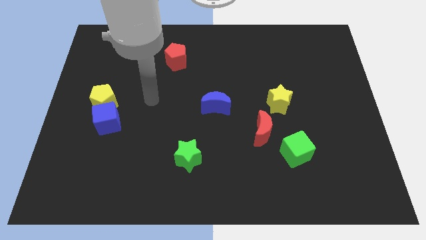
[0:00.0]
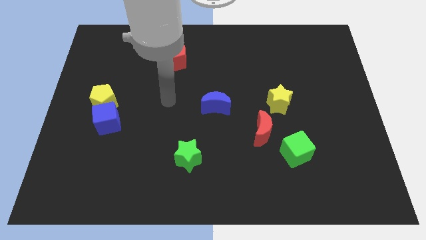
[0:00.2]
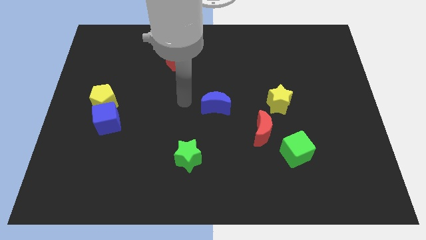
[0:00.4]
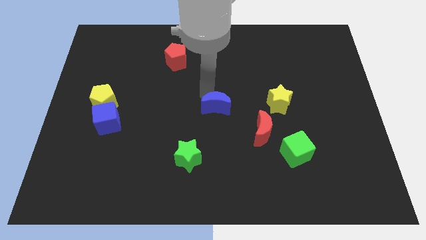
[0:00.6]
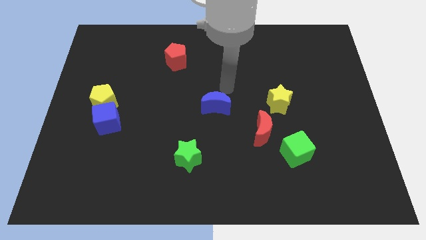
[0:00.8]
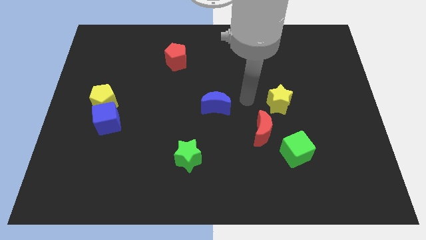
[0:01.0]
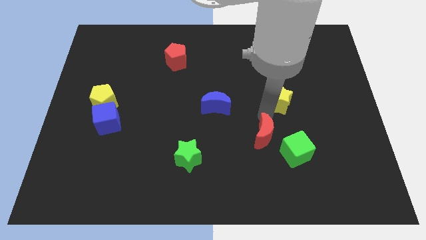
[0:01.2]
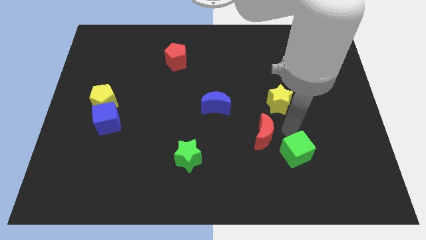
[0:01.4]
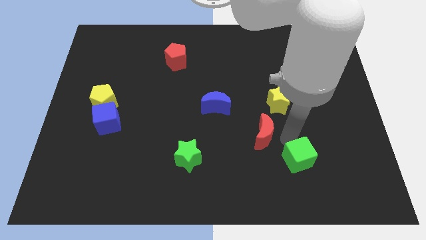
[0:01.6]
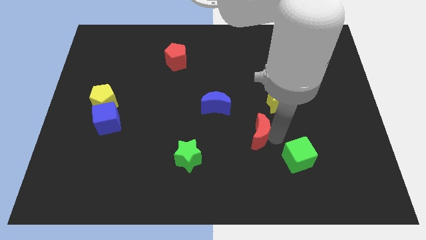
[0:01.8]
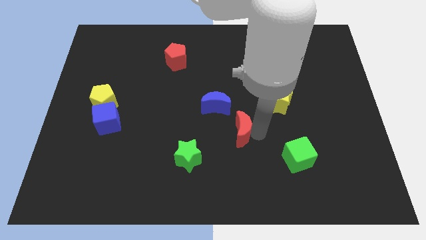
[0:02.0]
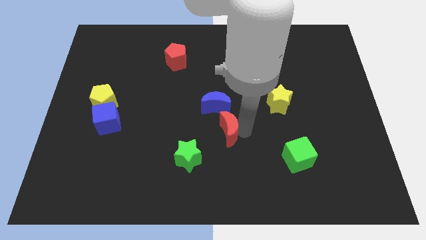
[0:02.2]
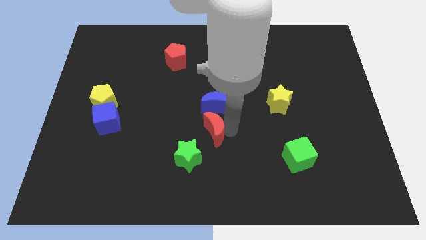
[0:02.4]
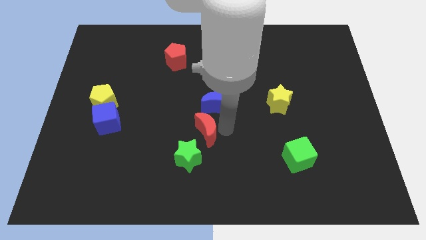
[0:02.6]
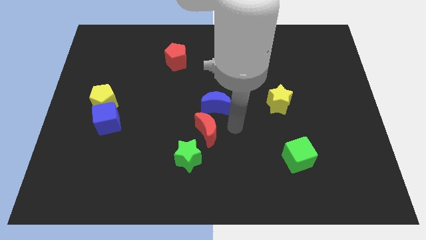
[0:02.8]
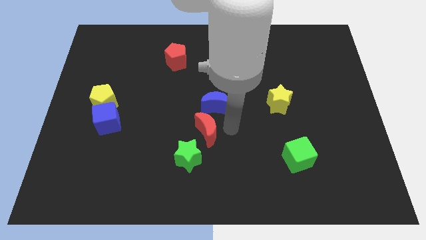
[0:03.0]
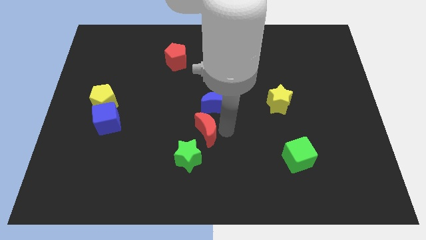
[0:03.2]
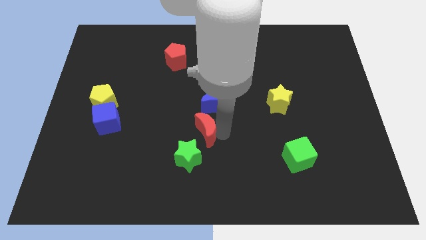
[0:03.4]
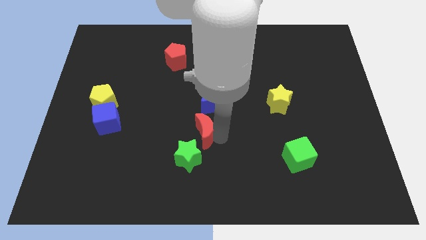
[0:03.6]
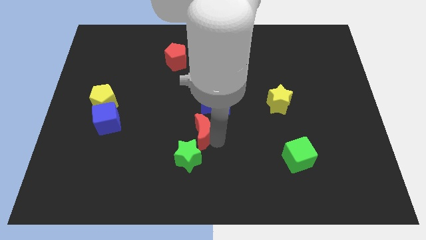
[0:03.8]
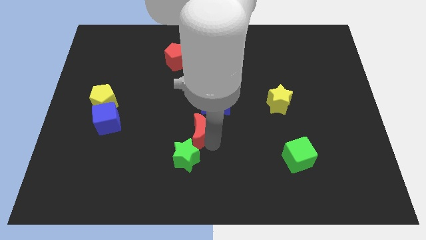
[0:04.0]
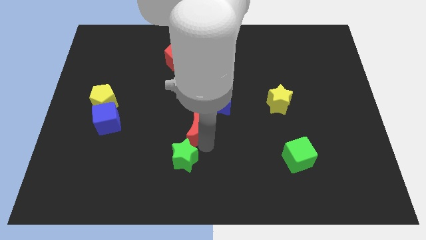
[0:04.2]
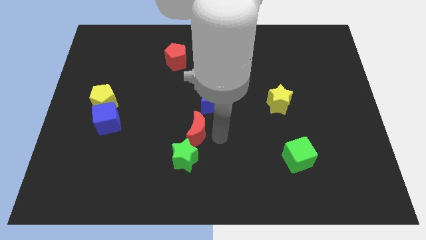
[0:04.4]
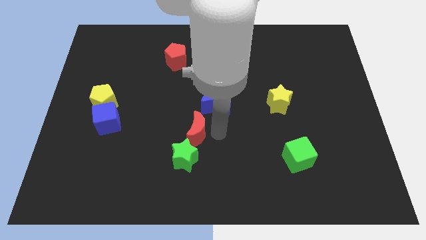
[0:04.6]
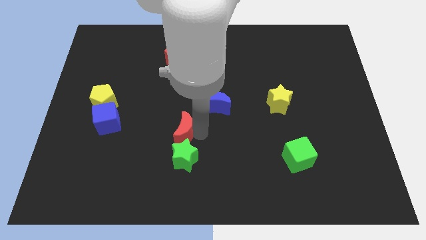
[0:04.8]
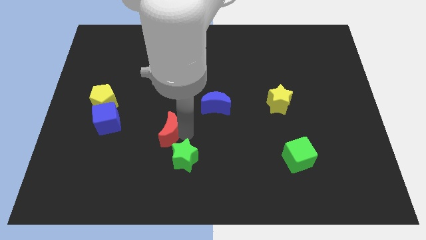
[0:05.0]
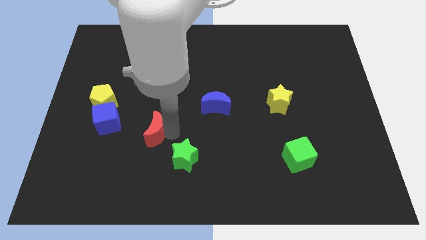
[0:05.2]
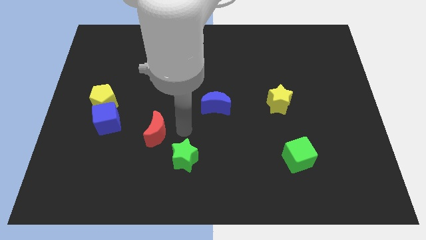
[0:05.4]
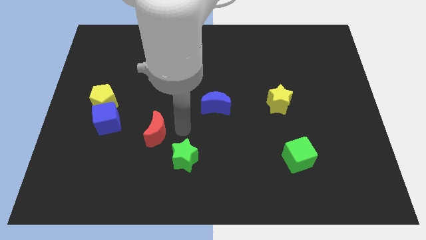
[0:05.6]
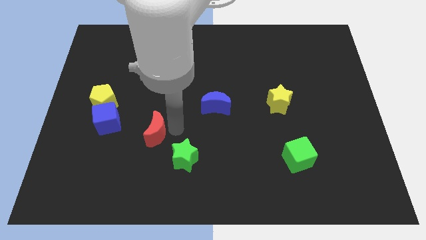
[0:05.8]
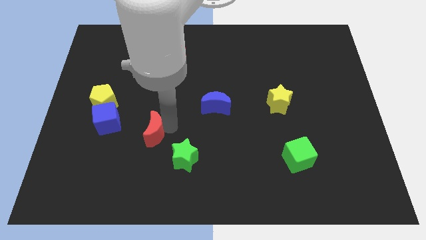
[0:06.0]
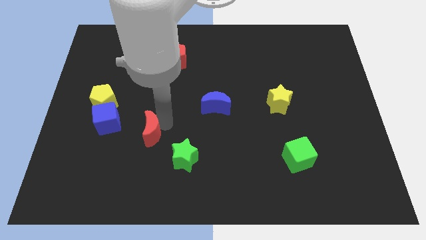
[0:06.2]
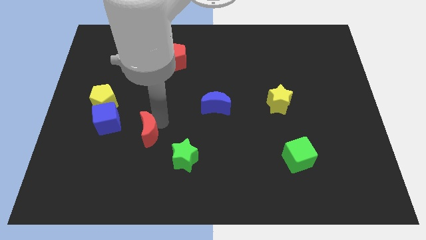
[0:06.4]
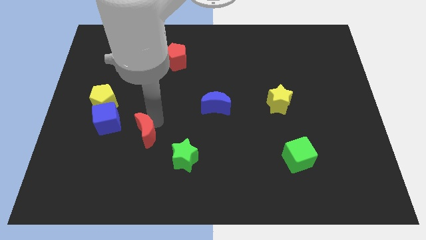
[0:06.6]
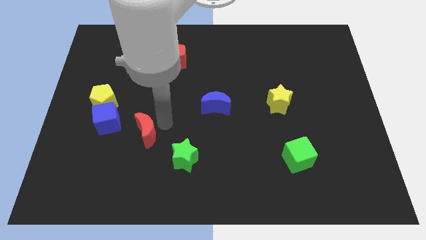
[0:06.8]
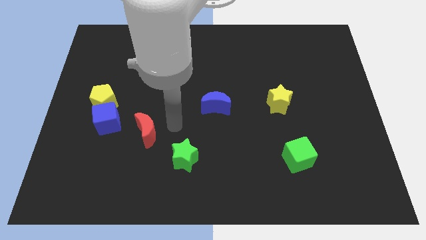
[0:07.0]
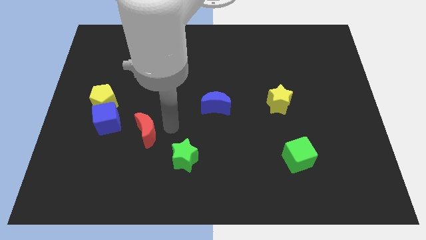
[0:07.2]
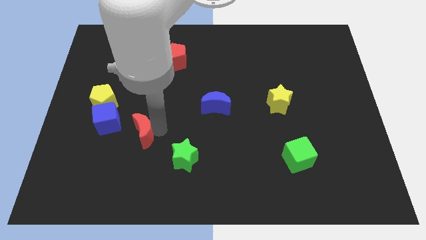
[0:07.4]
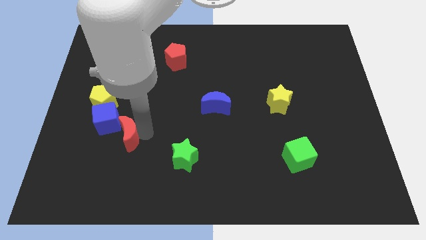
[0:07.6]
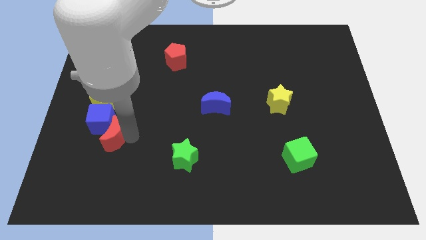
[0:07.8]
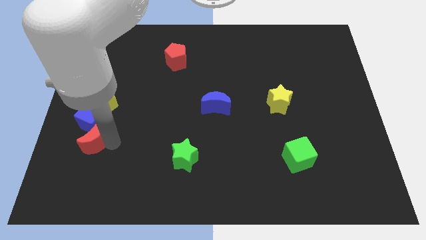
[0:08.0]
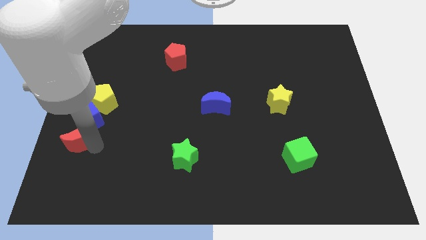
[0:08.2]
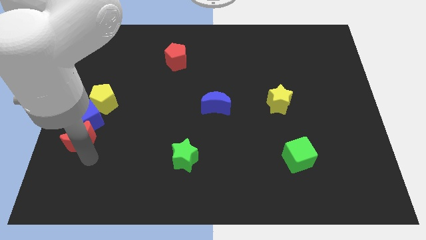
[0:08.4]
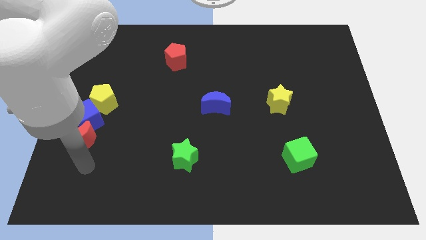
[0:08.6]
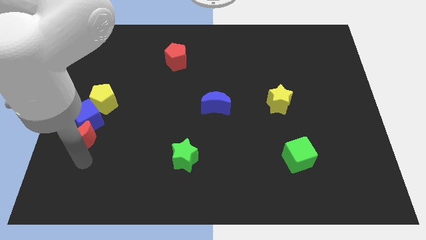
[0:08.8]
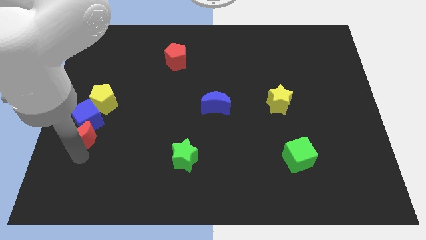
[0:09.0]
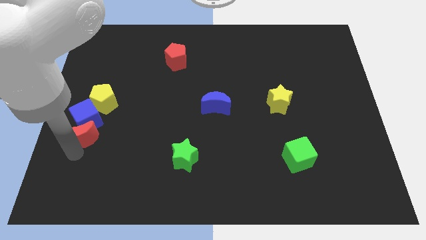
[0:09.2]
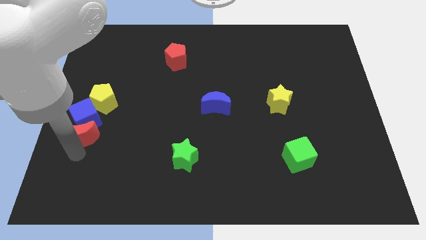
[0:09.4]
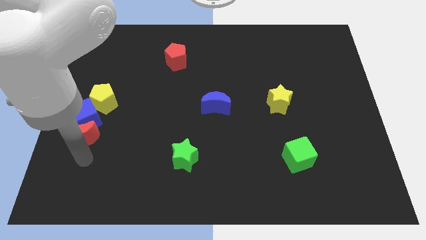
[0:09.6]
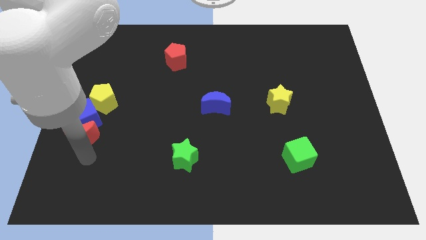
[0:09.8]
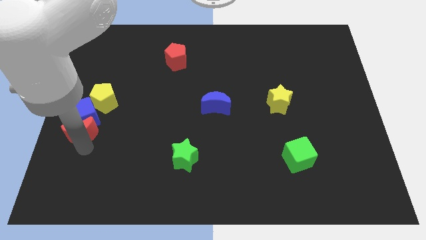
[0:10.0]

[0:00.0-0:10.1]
push the red moon to the center left

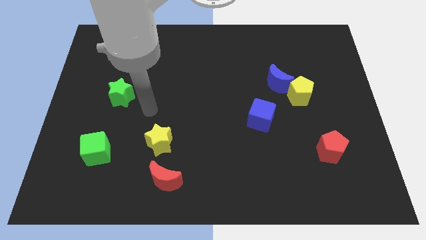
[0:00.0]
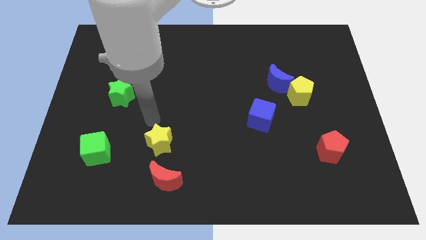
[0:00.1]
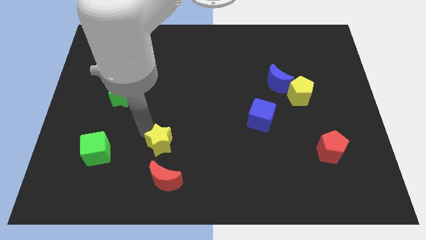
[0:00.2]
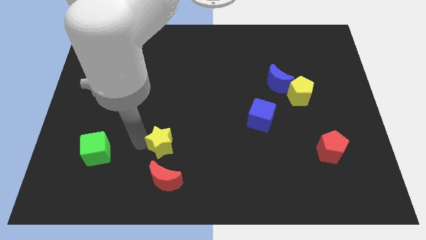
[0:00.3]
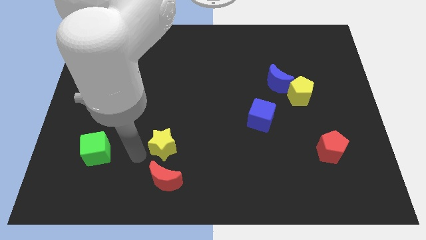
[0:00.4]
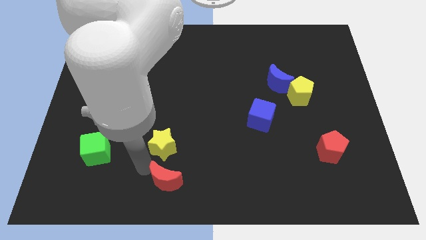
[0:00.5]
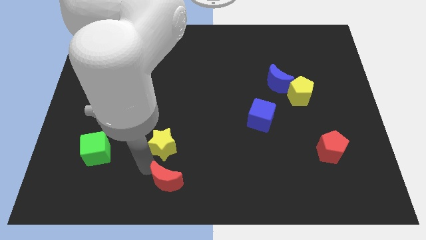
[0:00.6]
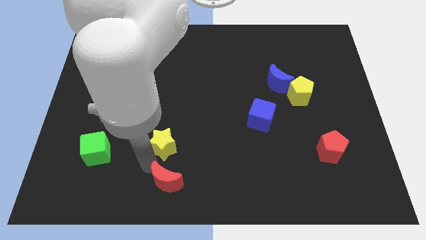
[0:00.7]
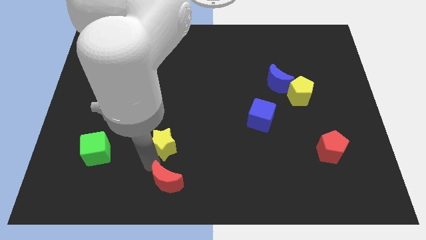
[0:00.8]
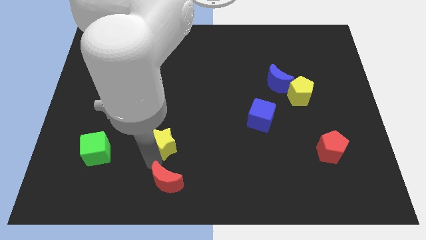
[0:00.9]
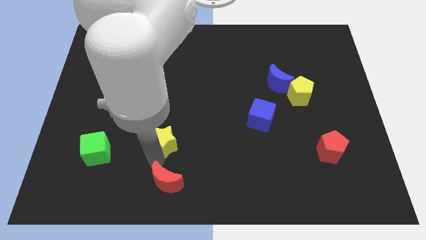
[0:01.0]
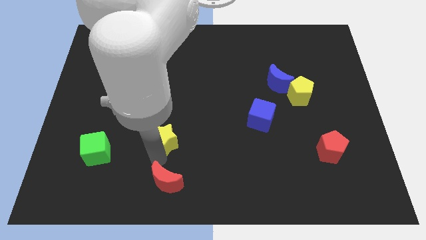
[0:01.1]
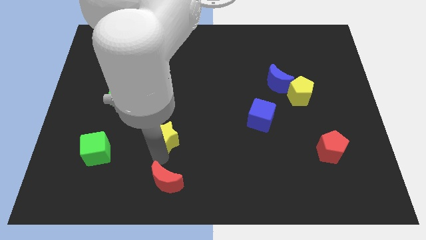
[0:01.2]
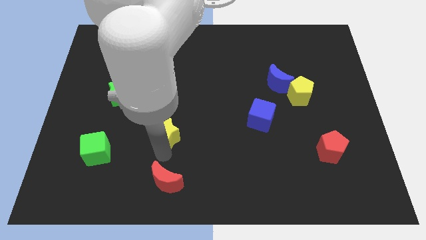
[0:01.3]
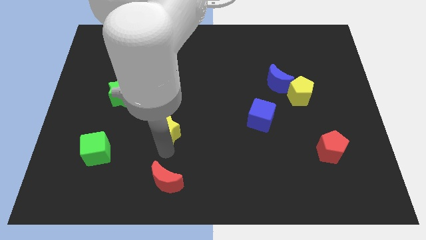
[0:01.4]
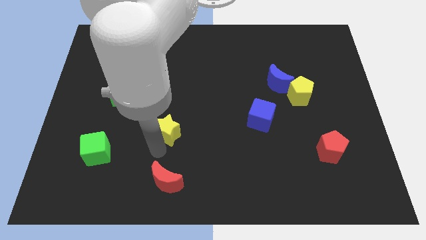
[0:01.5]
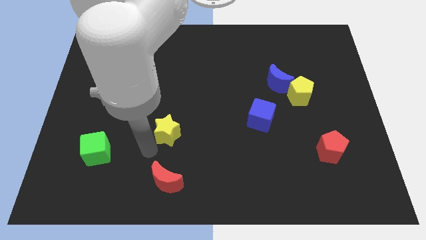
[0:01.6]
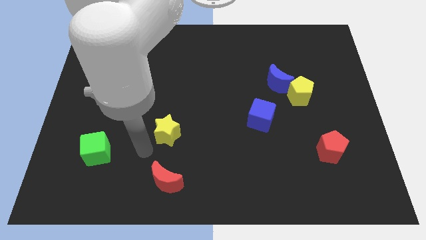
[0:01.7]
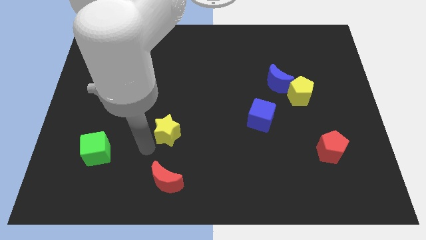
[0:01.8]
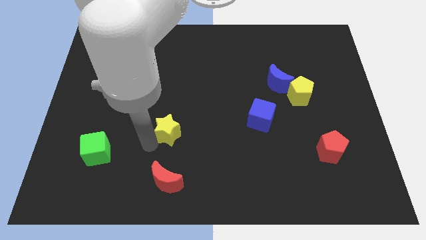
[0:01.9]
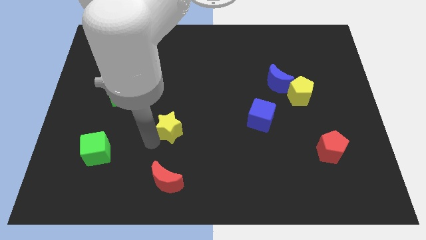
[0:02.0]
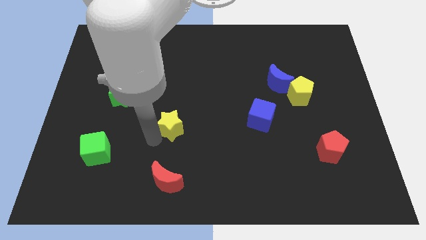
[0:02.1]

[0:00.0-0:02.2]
slide the yellow star to the center of the board

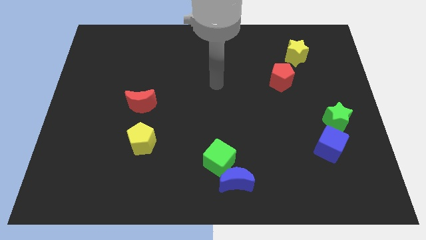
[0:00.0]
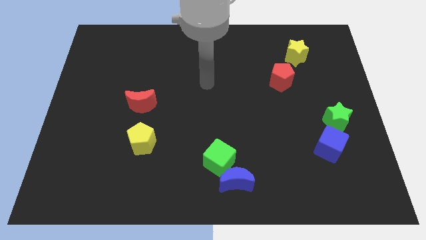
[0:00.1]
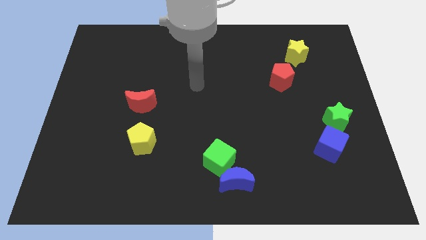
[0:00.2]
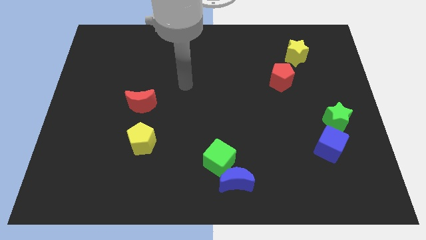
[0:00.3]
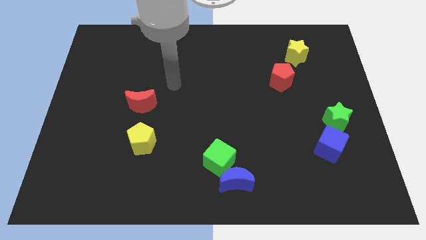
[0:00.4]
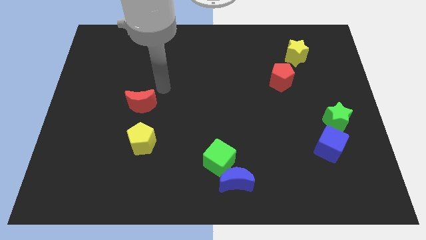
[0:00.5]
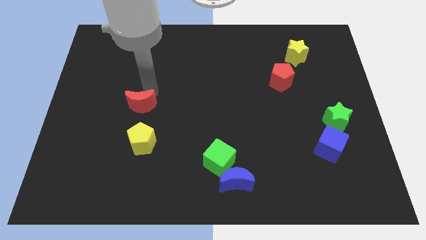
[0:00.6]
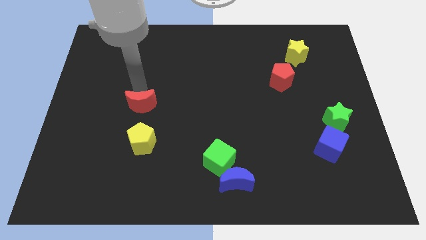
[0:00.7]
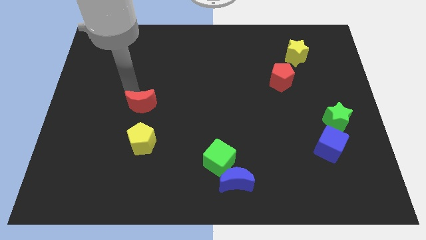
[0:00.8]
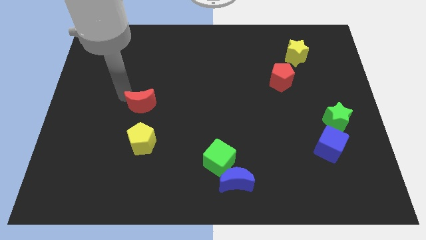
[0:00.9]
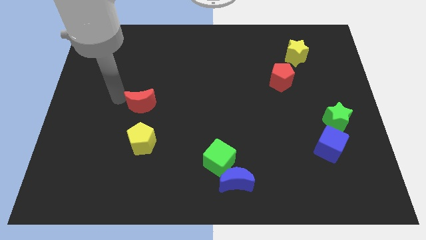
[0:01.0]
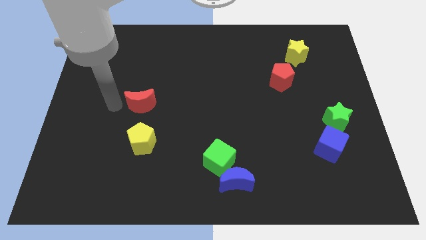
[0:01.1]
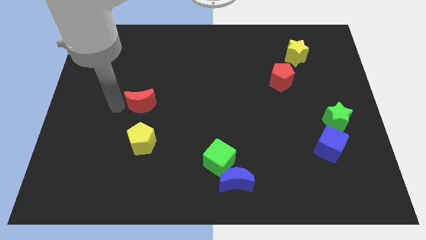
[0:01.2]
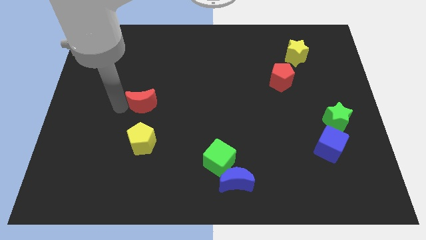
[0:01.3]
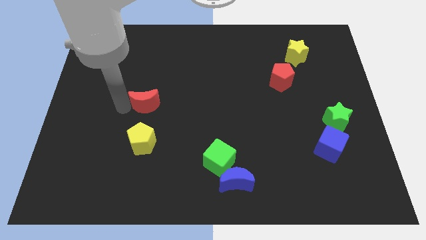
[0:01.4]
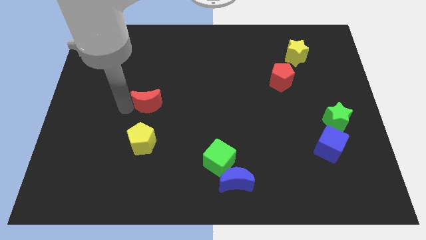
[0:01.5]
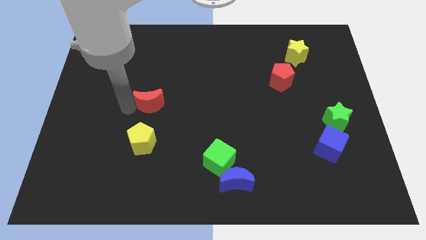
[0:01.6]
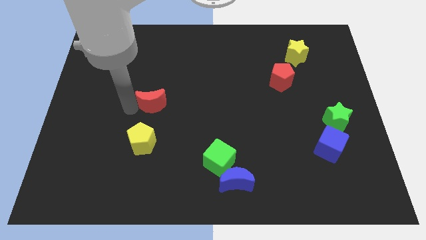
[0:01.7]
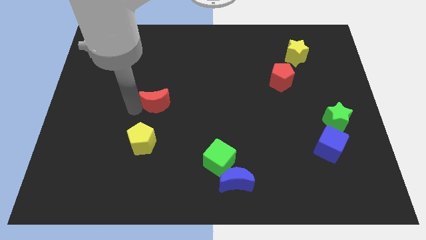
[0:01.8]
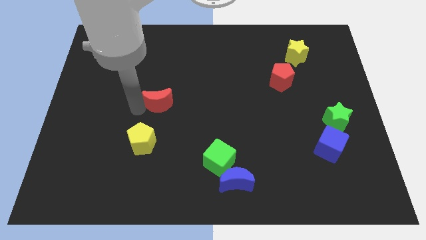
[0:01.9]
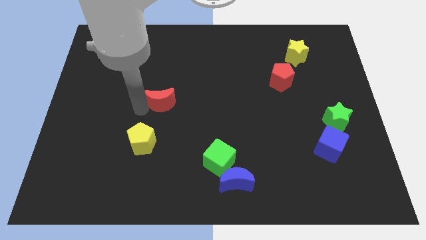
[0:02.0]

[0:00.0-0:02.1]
put the red moon to the center
